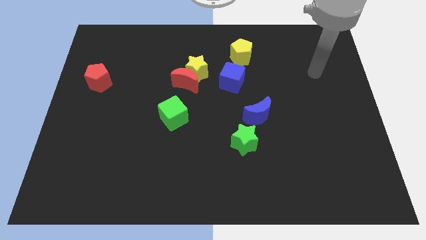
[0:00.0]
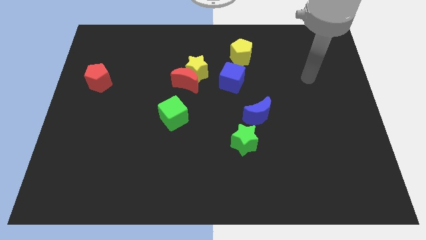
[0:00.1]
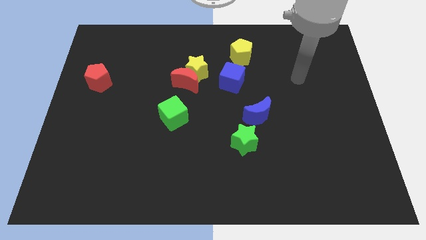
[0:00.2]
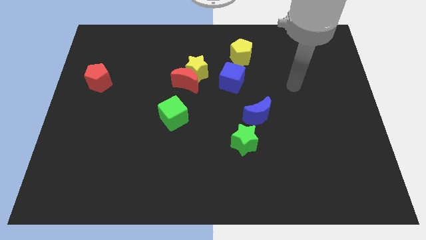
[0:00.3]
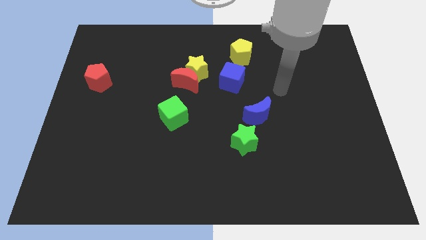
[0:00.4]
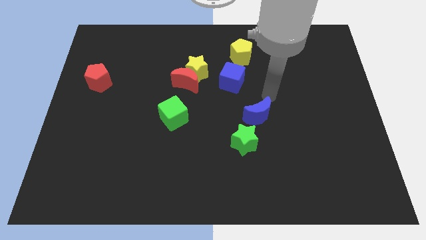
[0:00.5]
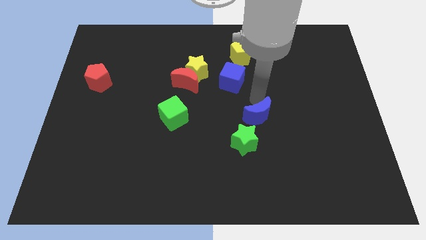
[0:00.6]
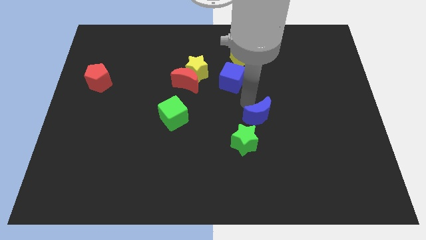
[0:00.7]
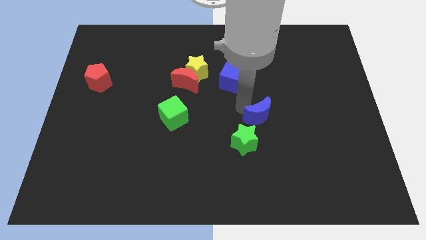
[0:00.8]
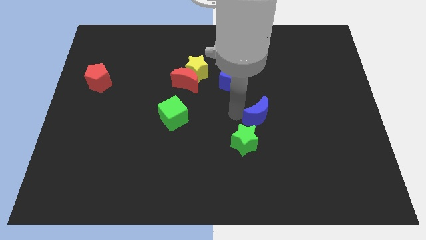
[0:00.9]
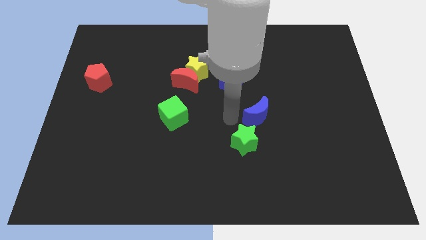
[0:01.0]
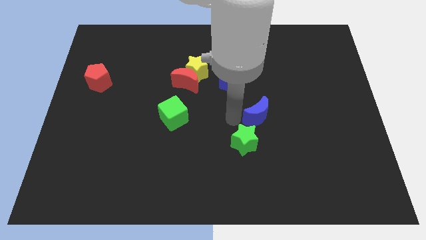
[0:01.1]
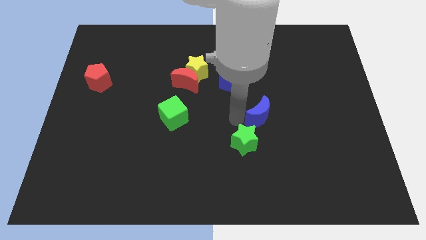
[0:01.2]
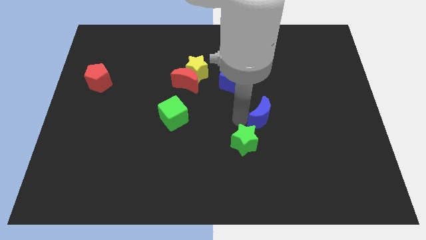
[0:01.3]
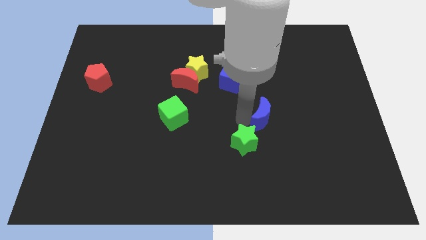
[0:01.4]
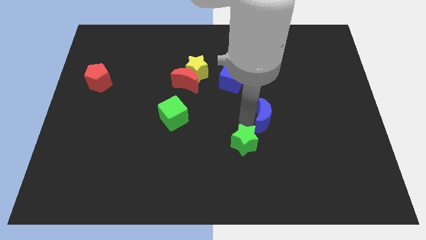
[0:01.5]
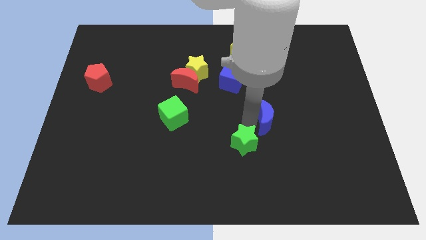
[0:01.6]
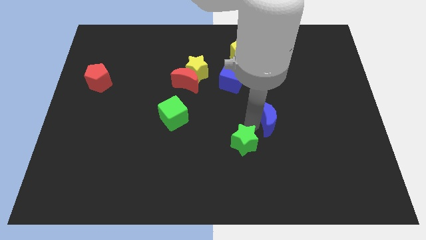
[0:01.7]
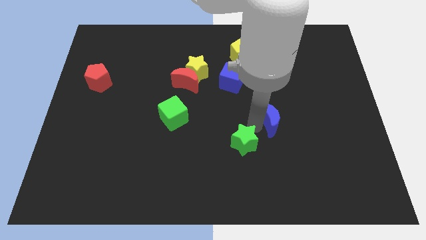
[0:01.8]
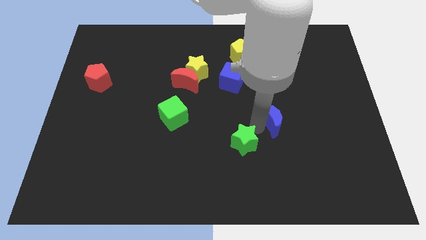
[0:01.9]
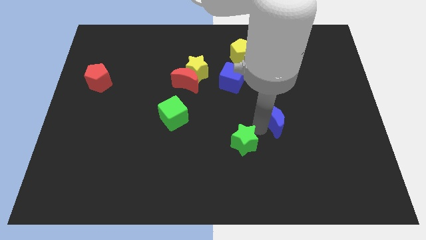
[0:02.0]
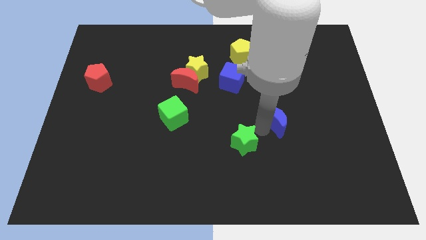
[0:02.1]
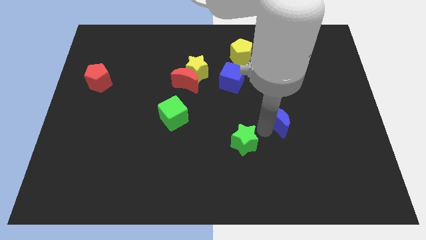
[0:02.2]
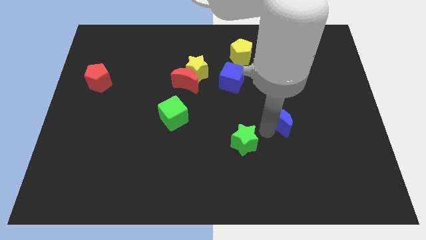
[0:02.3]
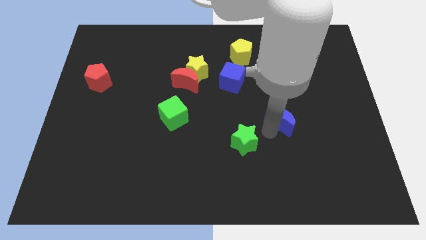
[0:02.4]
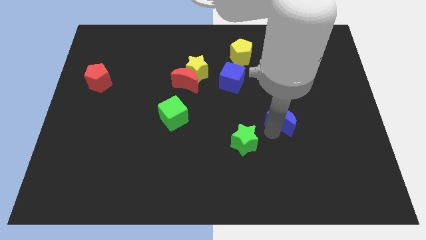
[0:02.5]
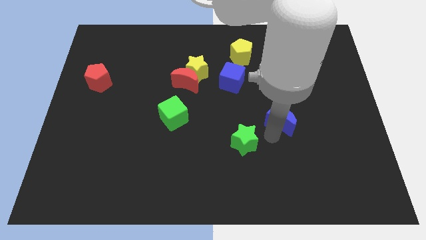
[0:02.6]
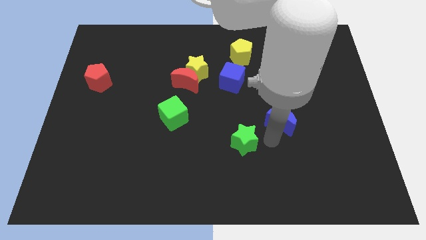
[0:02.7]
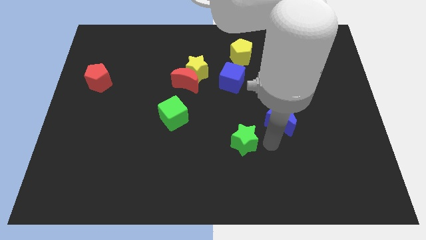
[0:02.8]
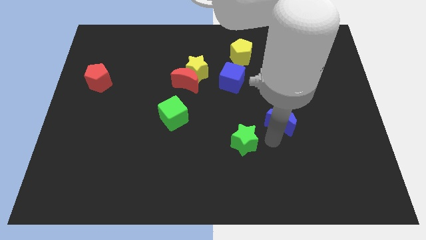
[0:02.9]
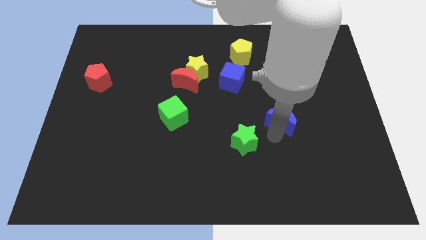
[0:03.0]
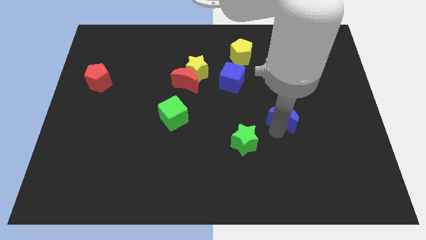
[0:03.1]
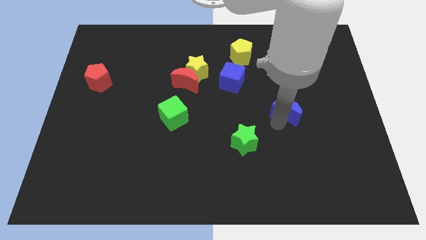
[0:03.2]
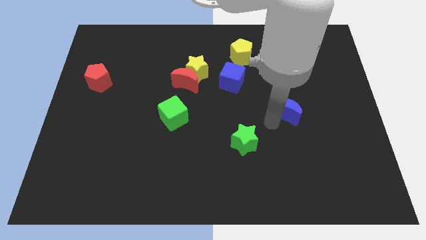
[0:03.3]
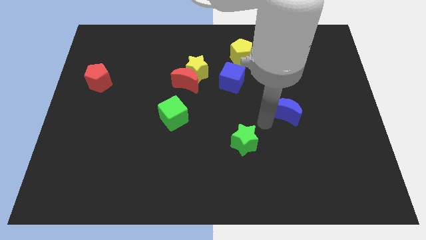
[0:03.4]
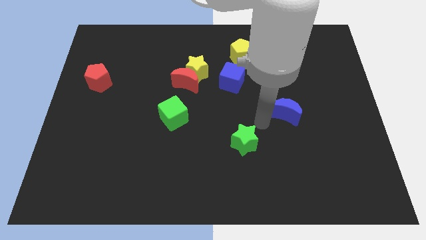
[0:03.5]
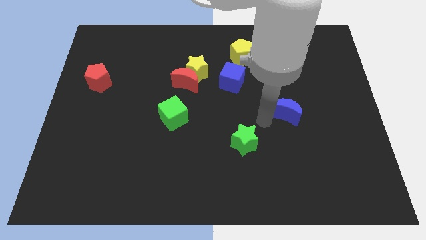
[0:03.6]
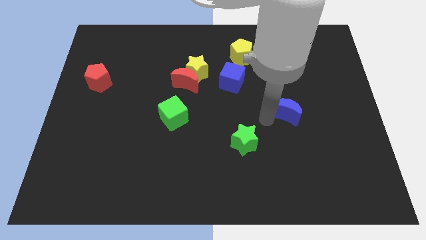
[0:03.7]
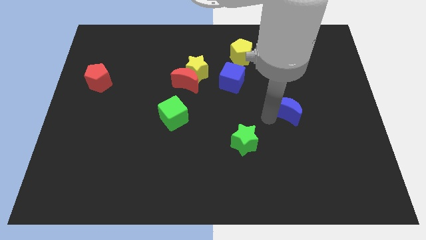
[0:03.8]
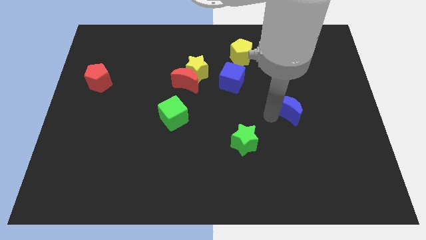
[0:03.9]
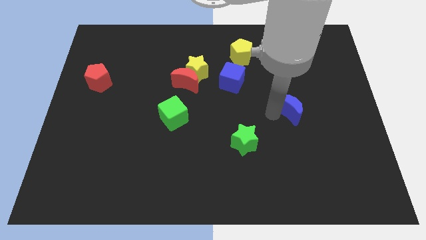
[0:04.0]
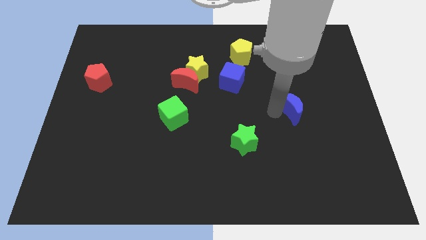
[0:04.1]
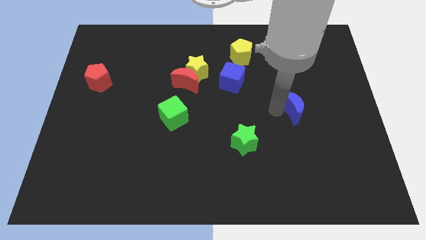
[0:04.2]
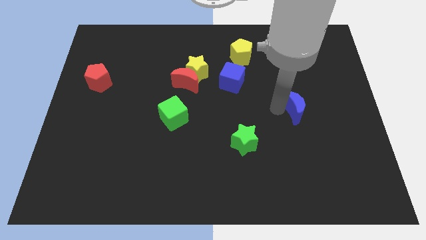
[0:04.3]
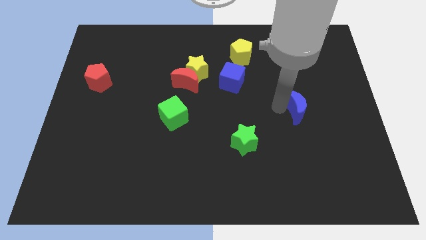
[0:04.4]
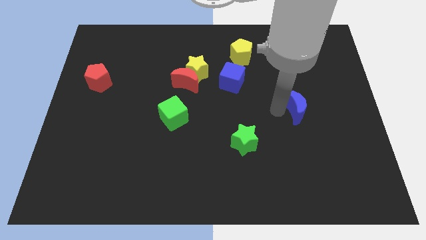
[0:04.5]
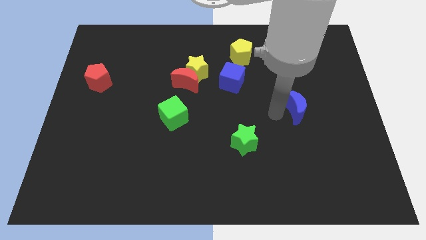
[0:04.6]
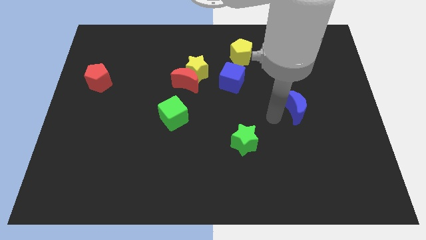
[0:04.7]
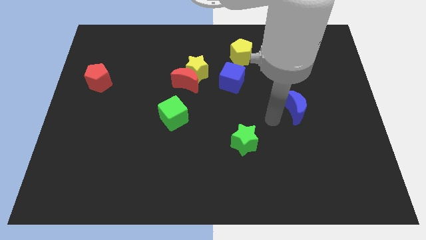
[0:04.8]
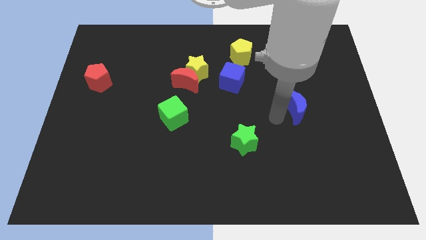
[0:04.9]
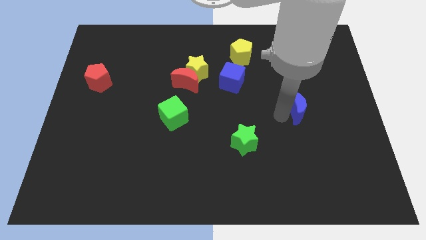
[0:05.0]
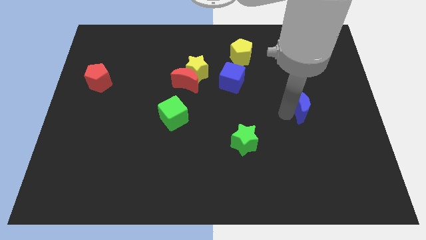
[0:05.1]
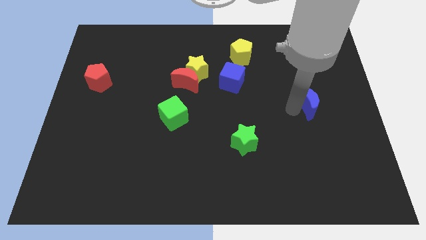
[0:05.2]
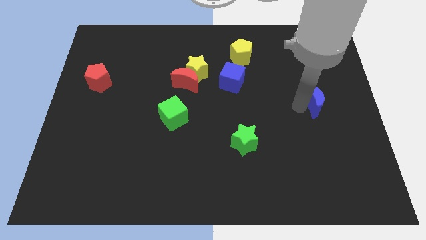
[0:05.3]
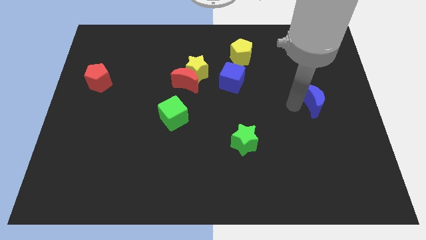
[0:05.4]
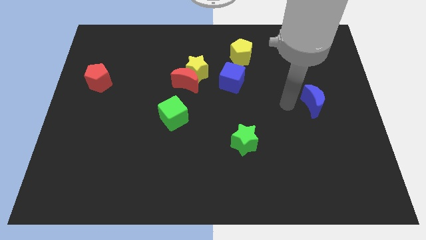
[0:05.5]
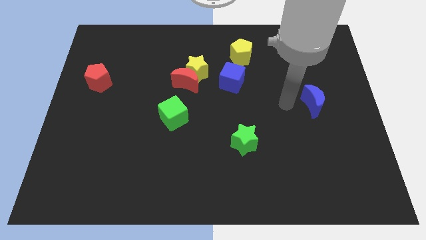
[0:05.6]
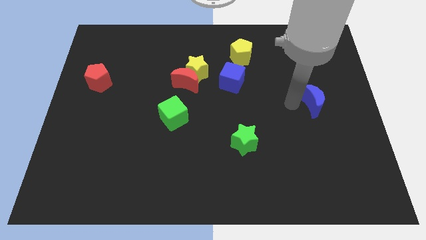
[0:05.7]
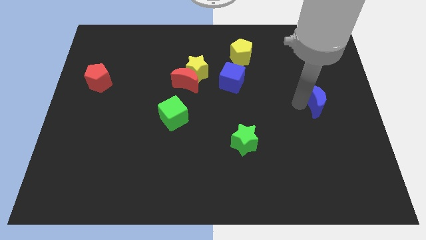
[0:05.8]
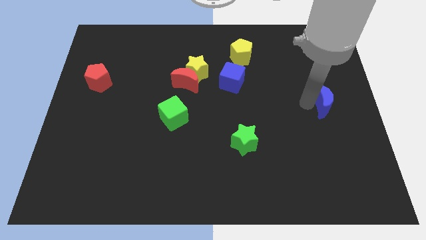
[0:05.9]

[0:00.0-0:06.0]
move the blue moon to the right side of the board

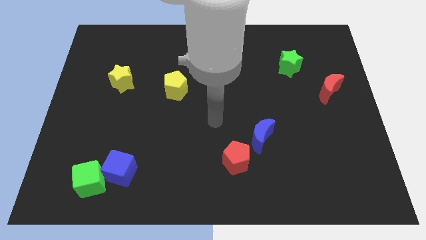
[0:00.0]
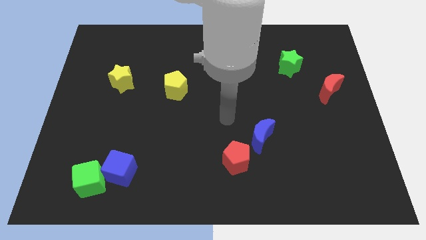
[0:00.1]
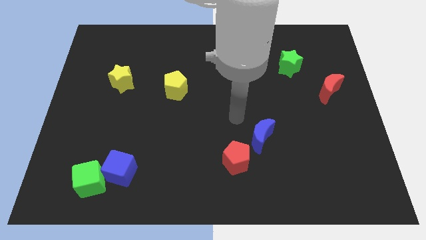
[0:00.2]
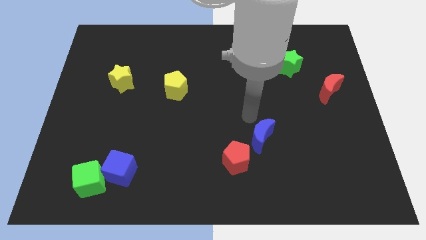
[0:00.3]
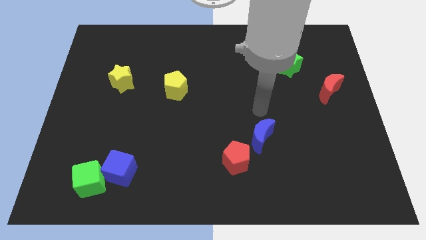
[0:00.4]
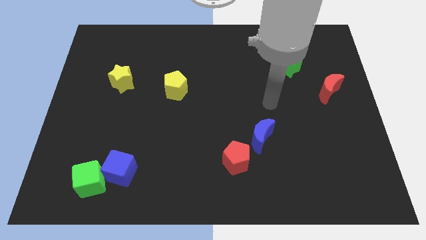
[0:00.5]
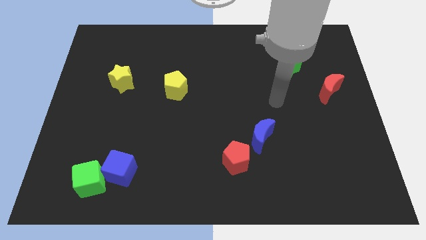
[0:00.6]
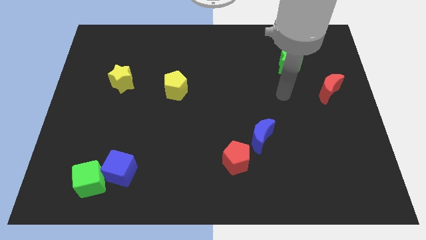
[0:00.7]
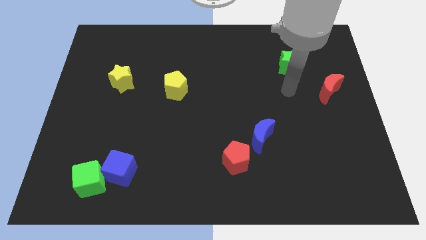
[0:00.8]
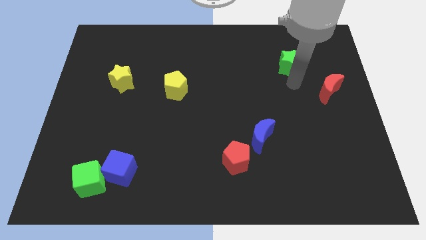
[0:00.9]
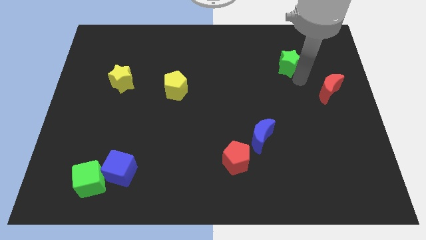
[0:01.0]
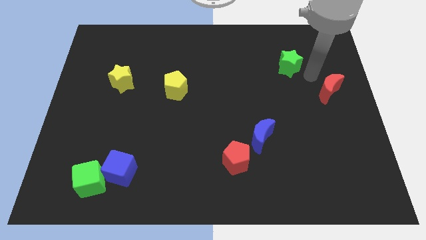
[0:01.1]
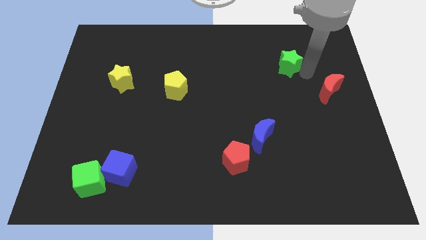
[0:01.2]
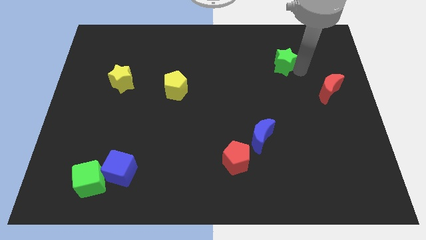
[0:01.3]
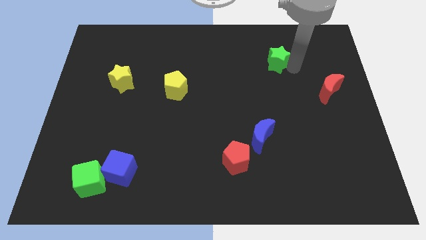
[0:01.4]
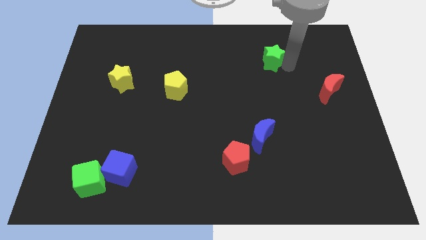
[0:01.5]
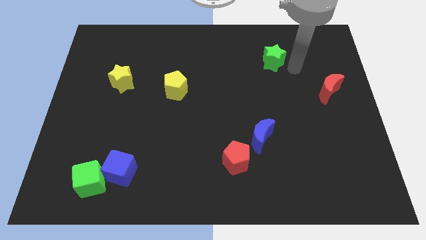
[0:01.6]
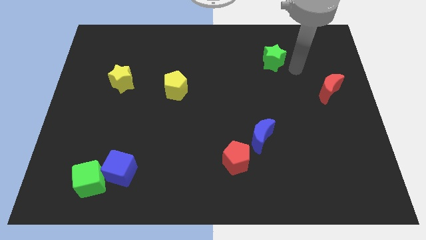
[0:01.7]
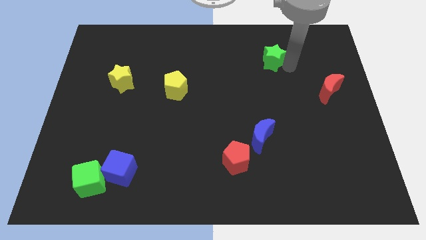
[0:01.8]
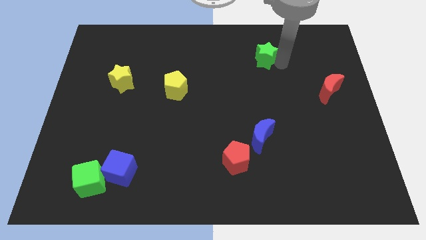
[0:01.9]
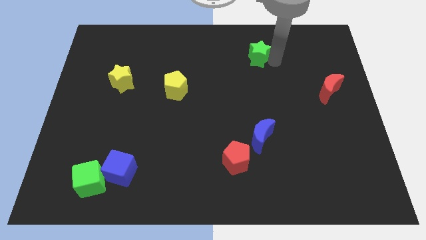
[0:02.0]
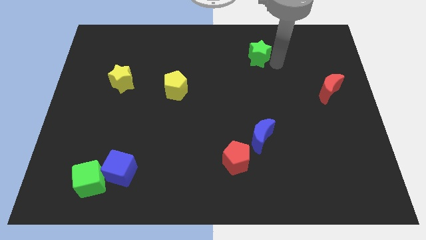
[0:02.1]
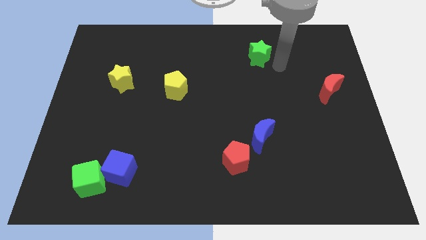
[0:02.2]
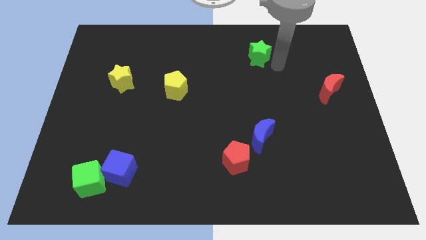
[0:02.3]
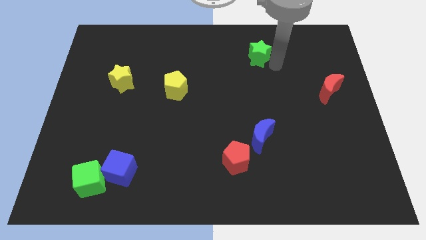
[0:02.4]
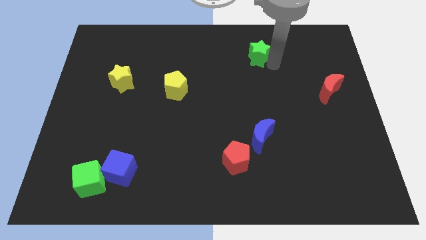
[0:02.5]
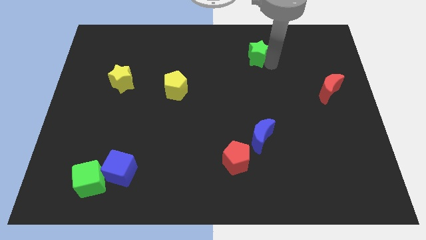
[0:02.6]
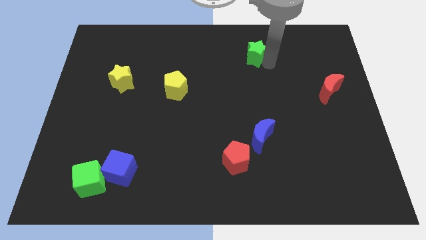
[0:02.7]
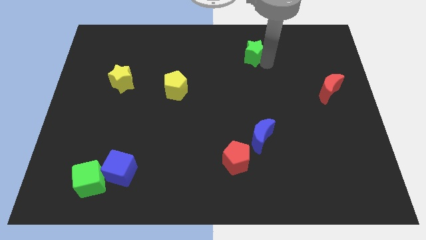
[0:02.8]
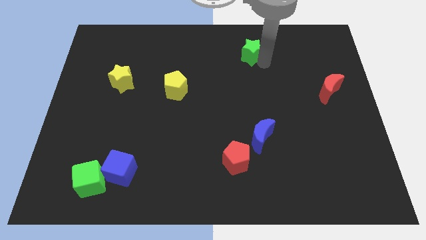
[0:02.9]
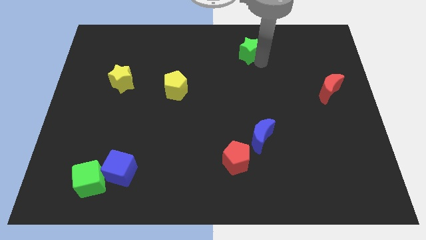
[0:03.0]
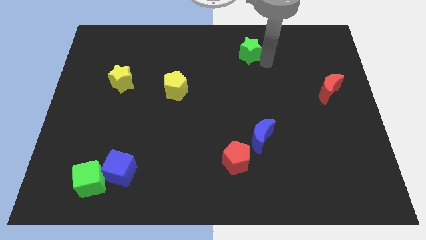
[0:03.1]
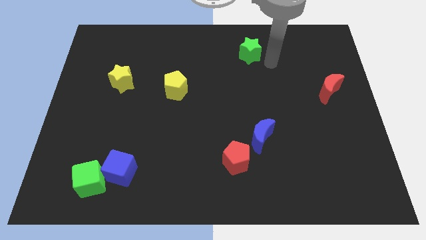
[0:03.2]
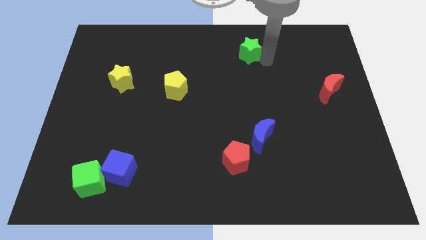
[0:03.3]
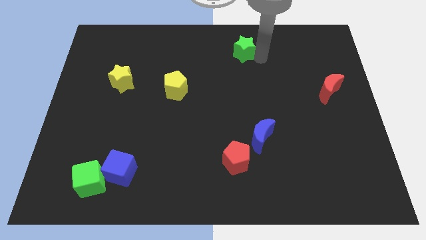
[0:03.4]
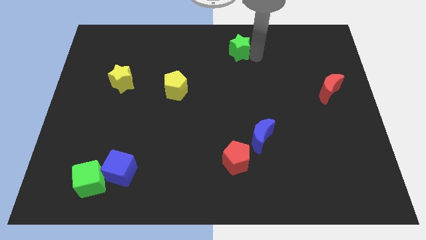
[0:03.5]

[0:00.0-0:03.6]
put the green star to the top side
